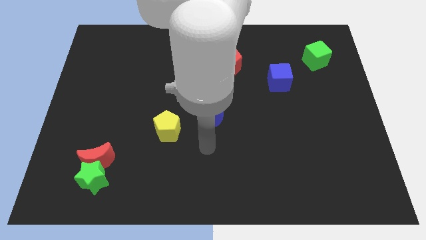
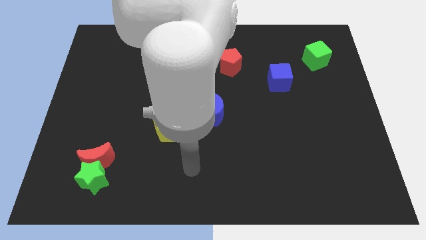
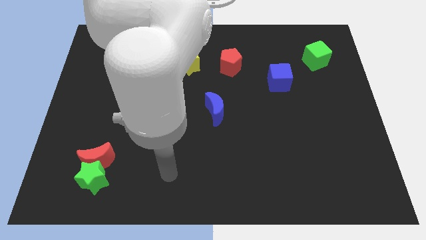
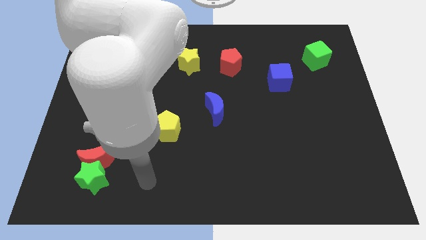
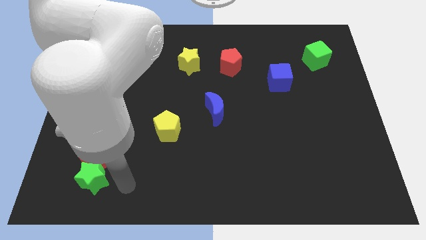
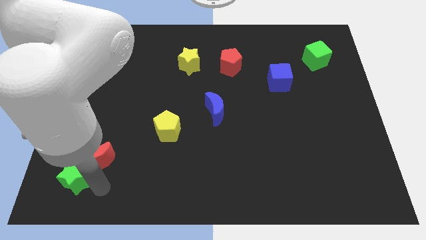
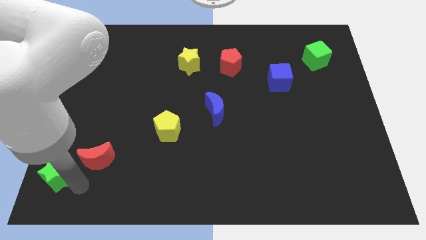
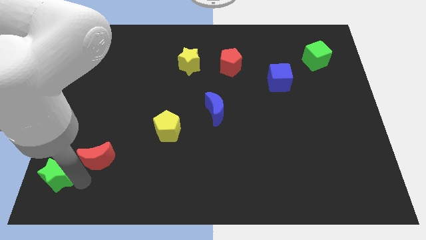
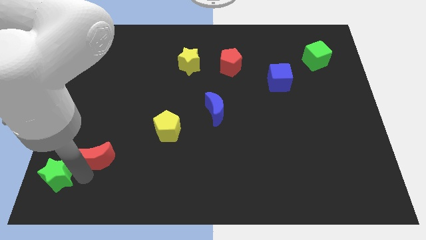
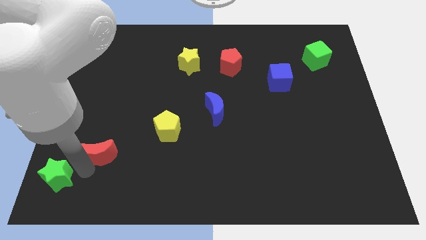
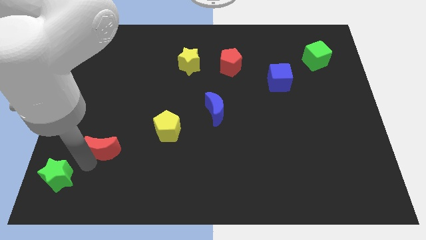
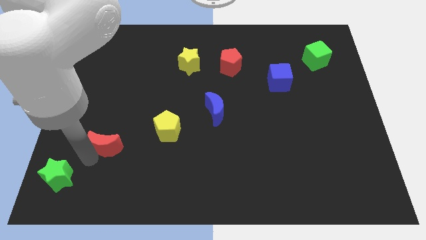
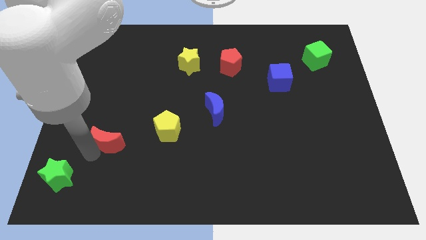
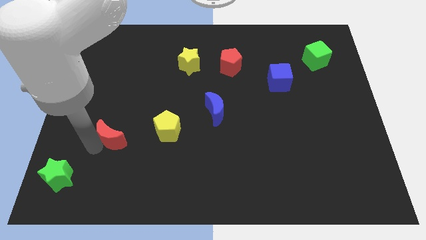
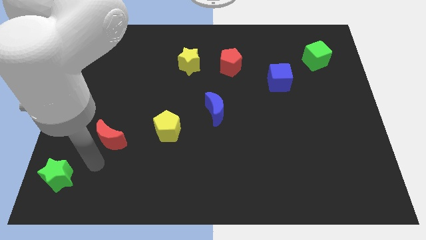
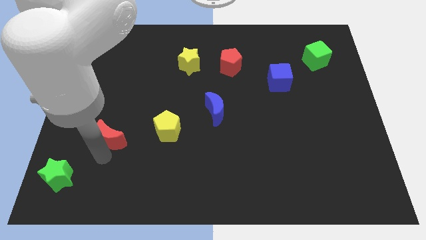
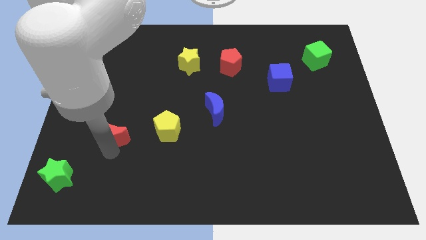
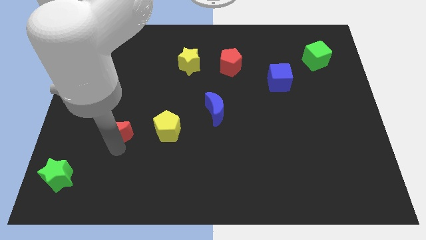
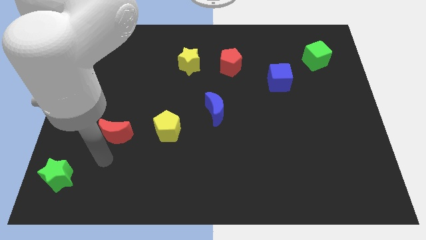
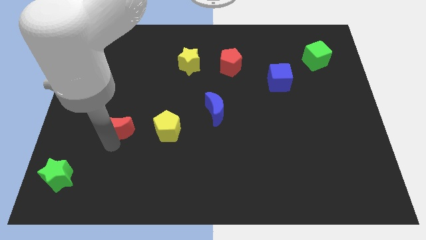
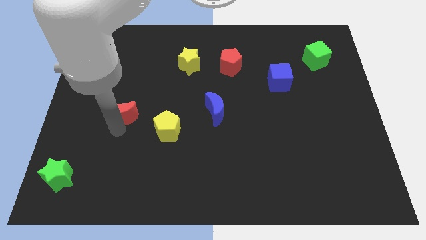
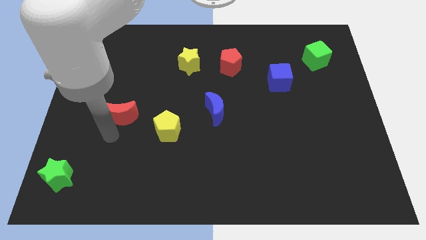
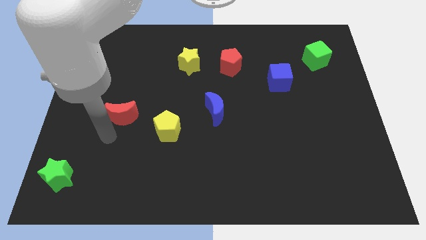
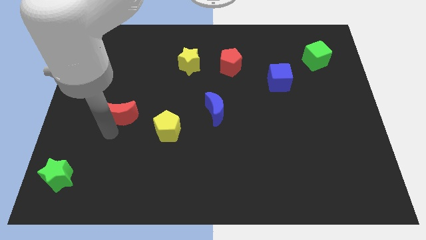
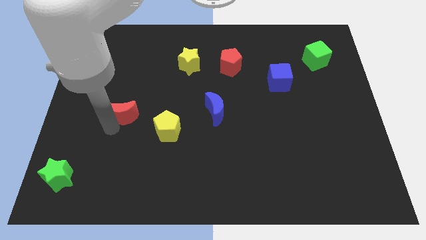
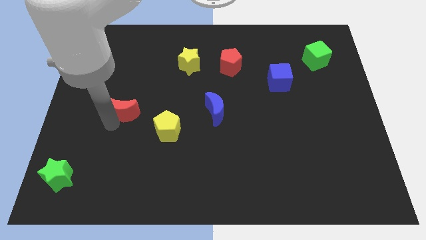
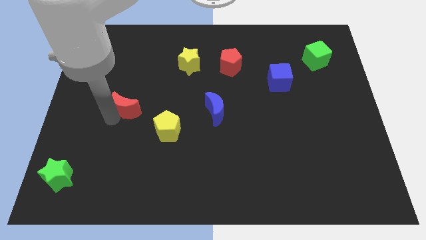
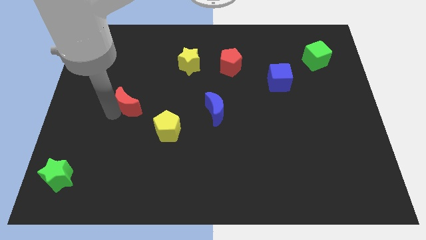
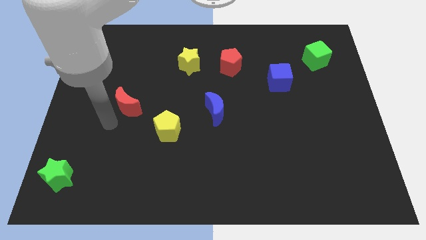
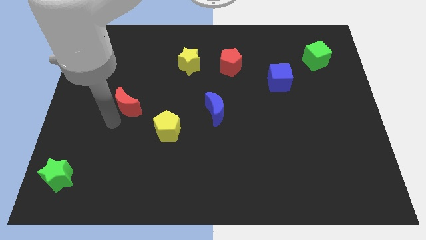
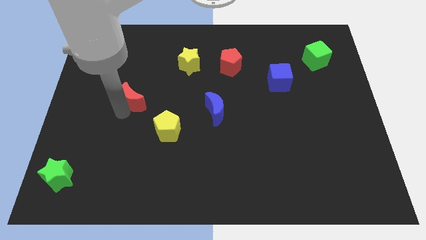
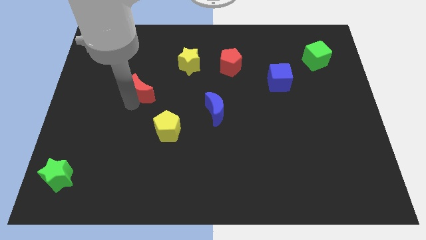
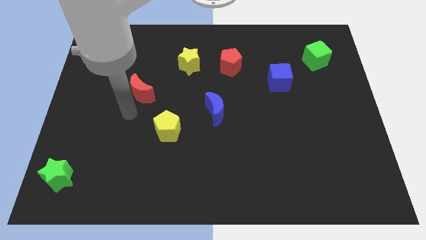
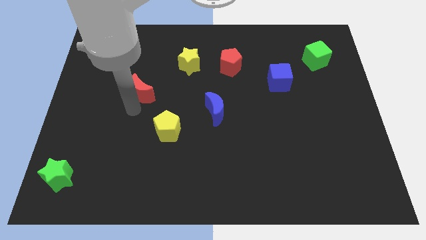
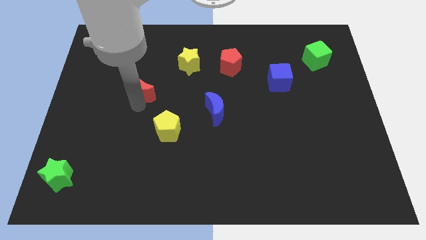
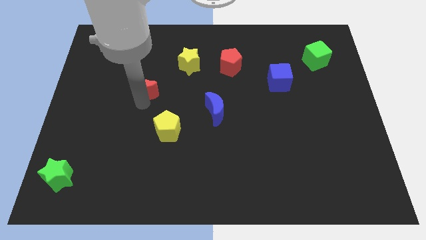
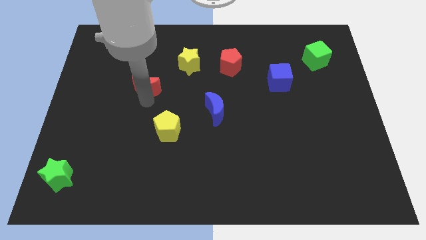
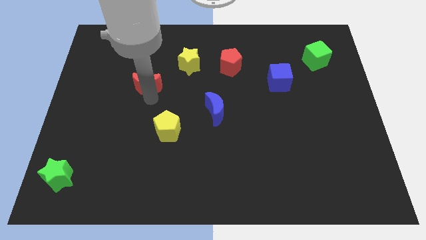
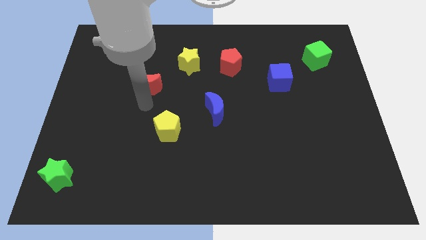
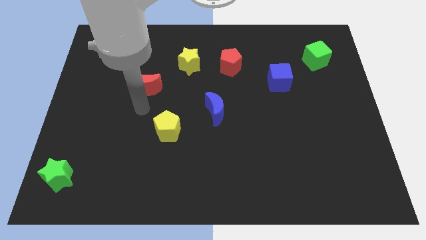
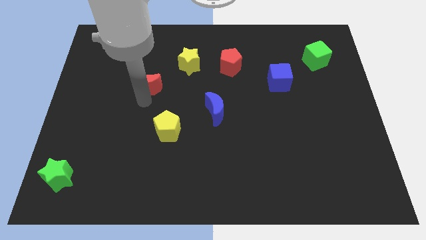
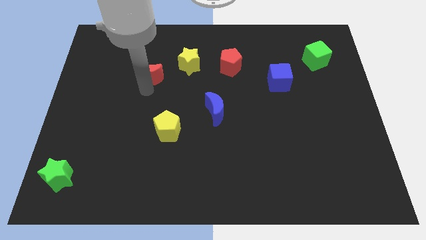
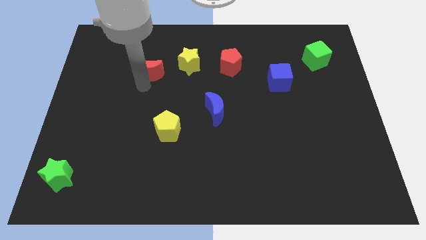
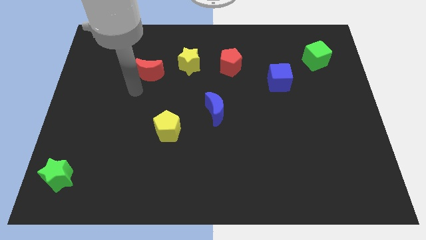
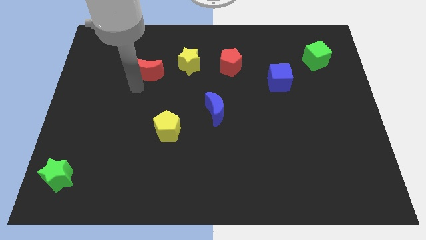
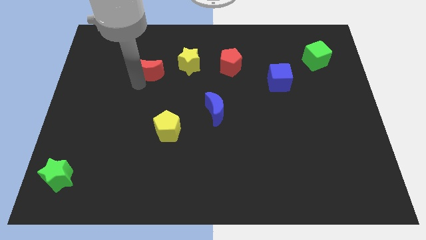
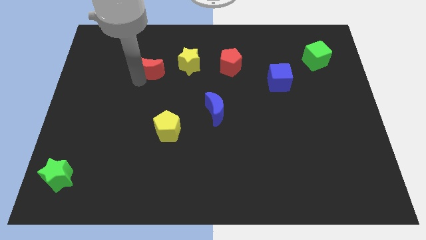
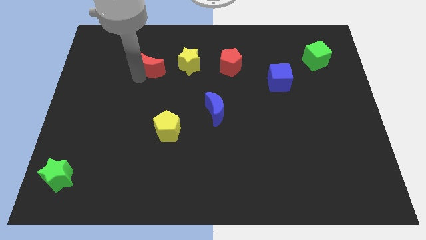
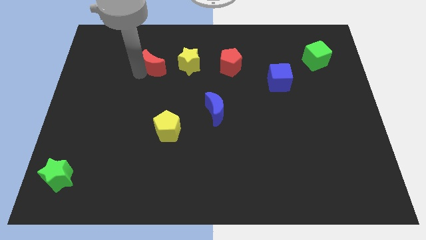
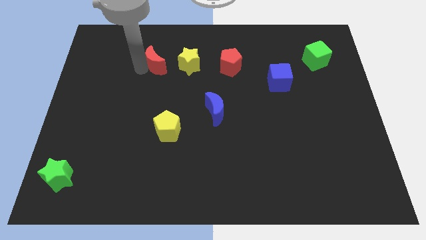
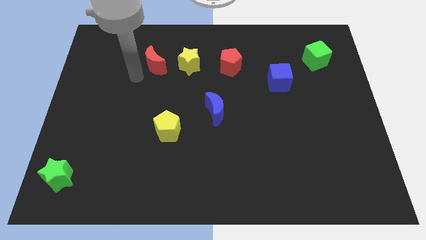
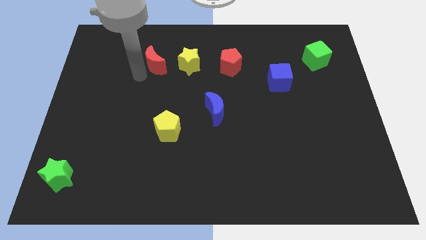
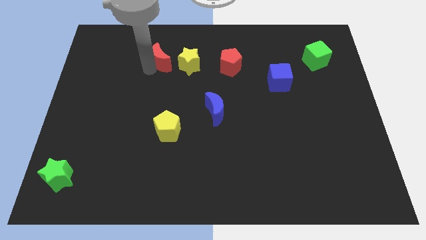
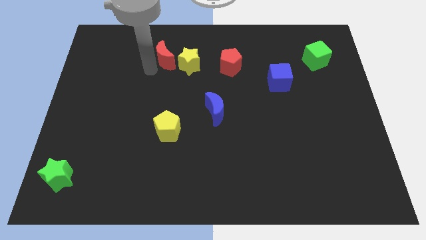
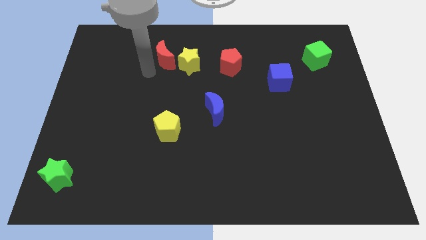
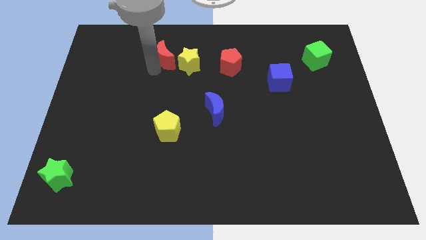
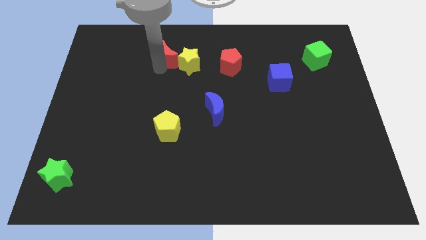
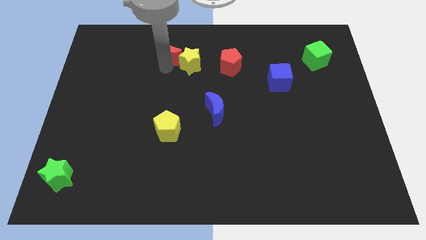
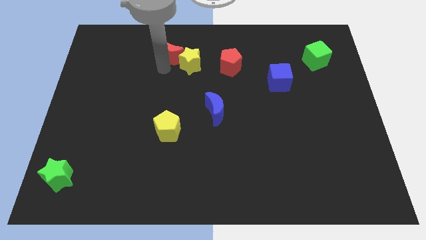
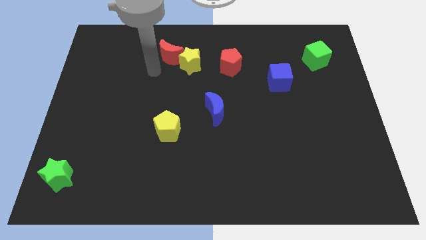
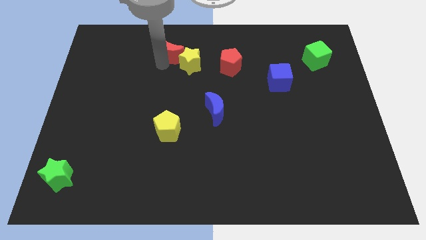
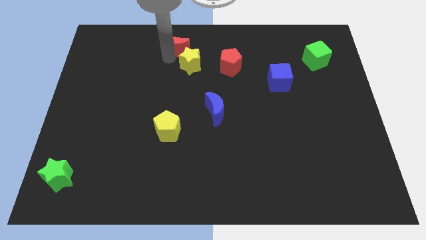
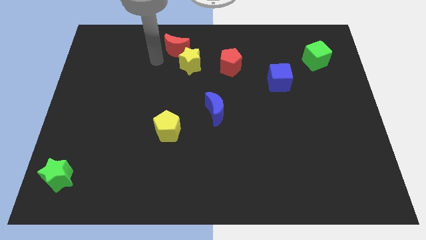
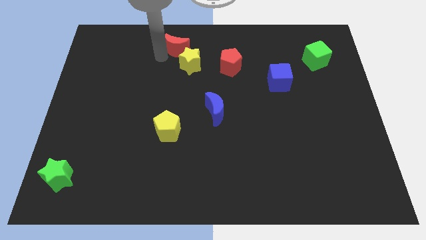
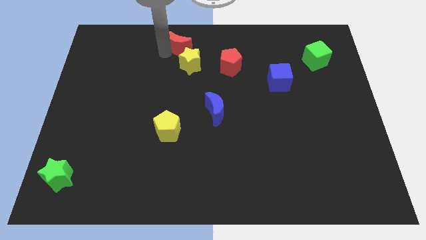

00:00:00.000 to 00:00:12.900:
put the red moon to the top
